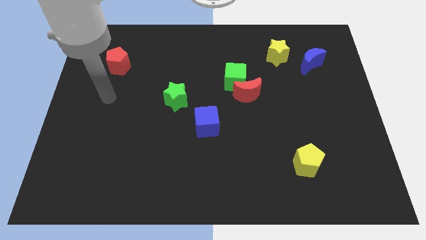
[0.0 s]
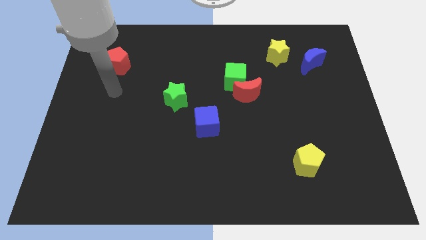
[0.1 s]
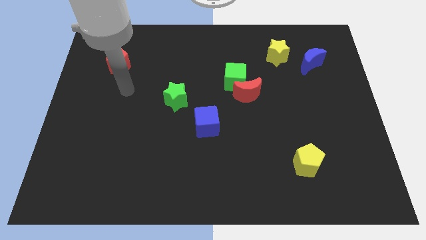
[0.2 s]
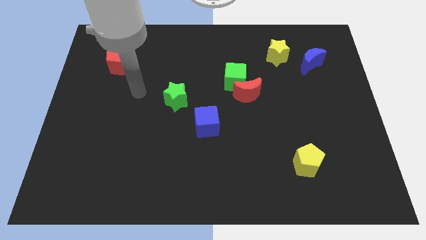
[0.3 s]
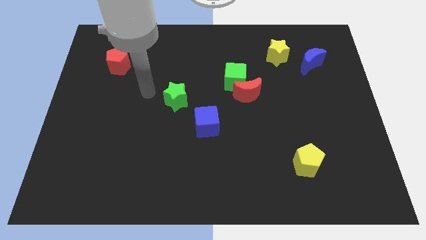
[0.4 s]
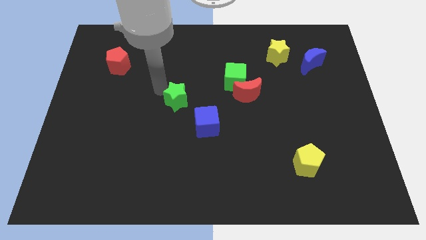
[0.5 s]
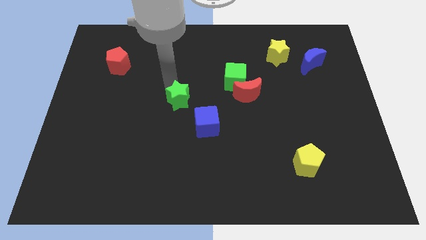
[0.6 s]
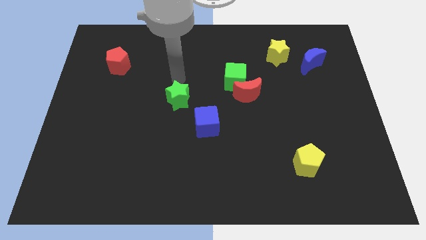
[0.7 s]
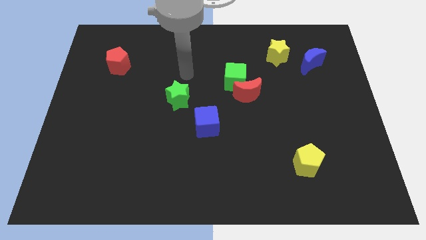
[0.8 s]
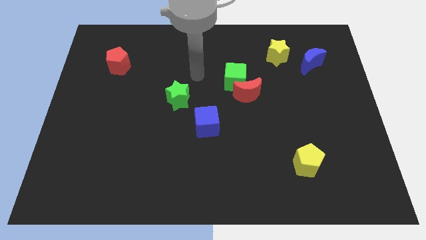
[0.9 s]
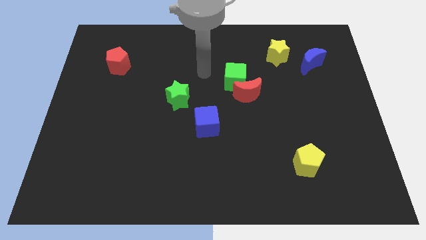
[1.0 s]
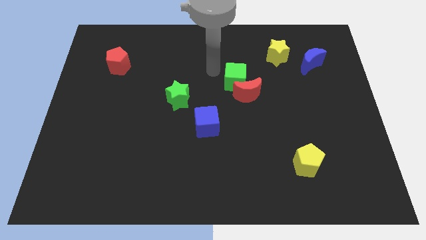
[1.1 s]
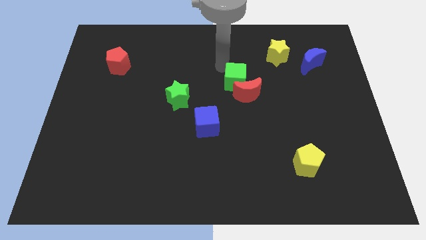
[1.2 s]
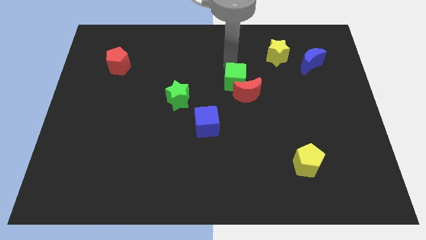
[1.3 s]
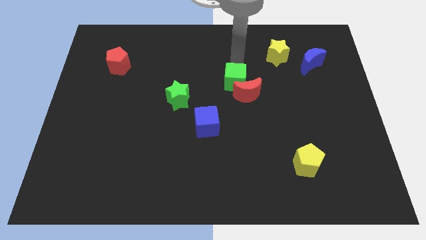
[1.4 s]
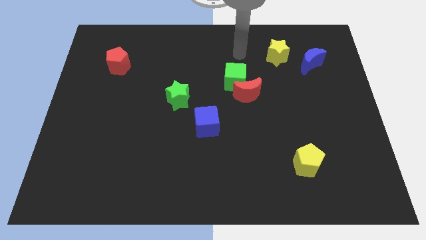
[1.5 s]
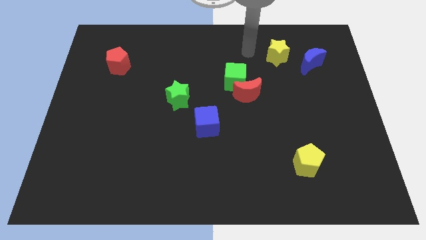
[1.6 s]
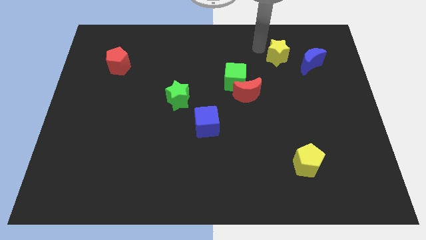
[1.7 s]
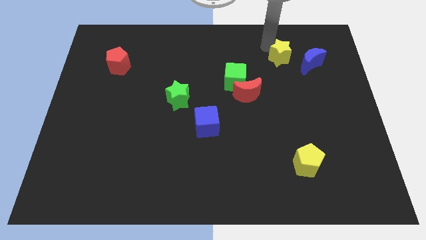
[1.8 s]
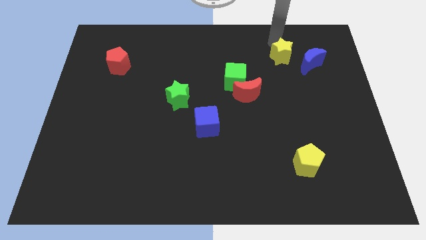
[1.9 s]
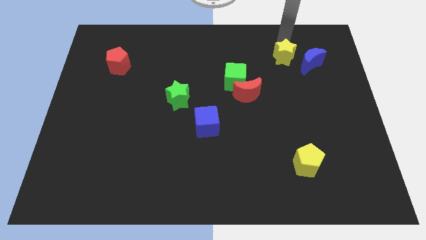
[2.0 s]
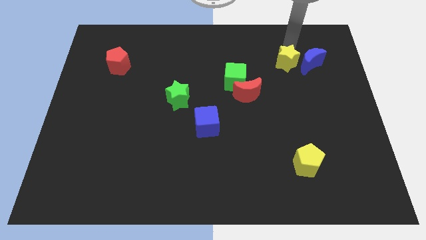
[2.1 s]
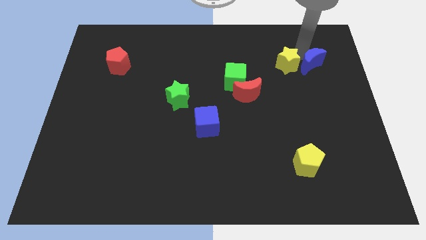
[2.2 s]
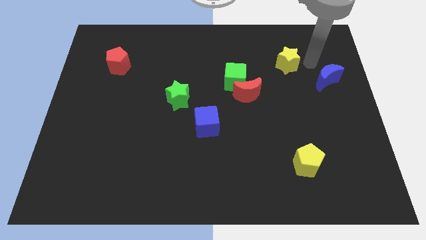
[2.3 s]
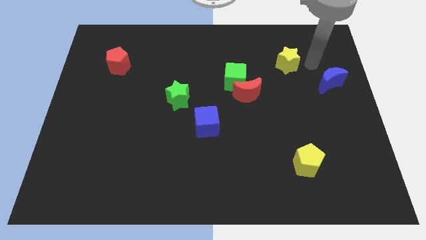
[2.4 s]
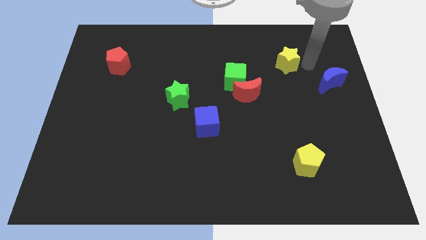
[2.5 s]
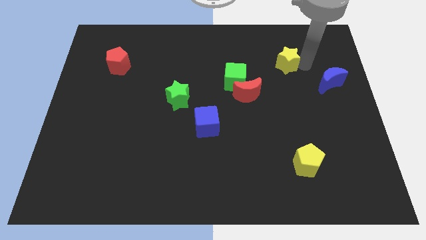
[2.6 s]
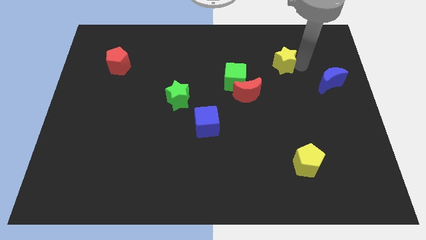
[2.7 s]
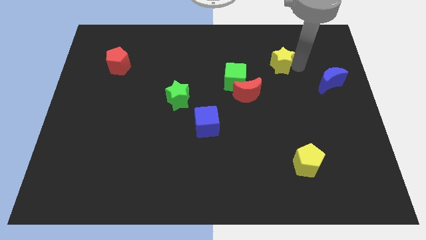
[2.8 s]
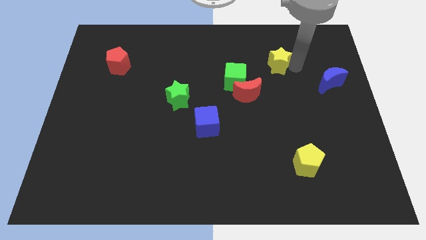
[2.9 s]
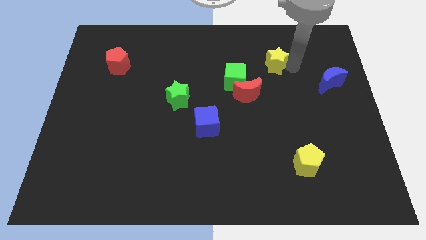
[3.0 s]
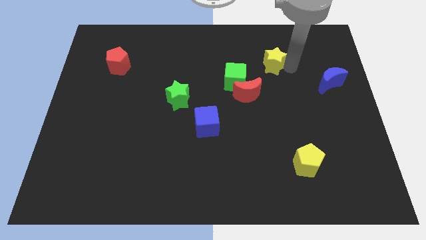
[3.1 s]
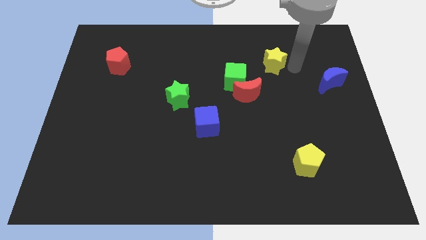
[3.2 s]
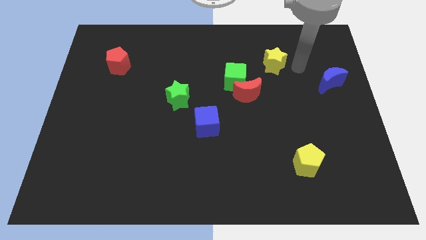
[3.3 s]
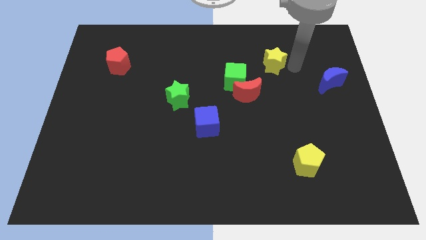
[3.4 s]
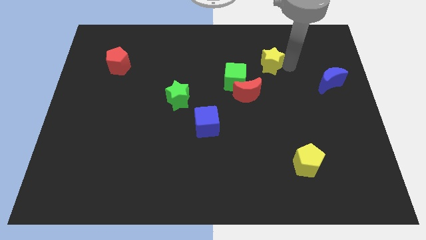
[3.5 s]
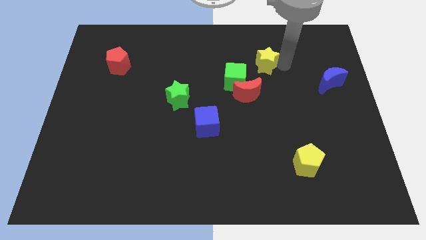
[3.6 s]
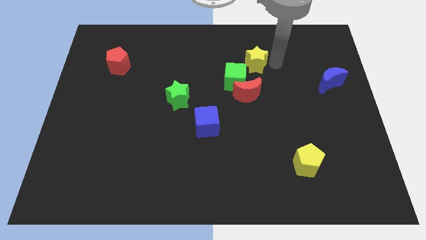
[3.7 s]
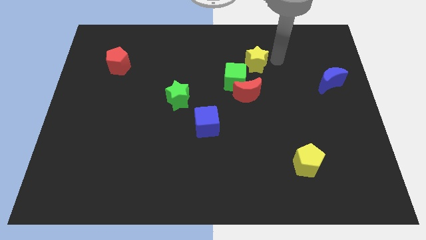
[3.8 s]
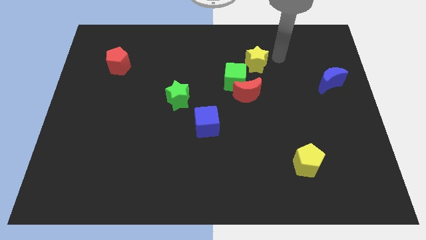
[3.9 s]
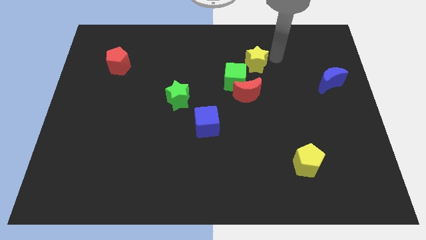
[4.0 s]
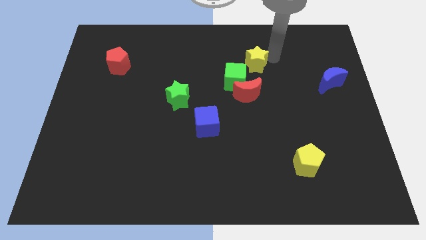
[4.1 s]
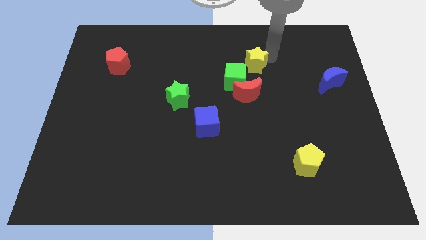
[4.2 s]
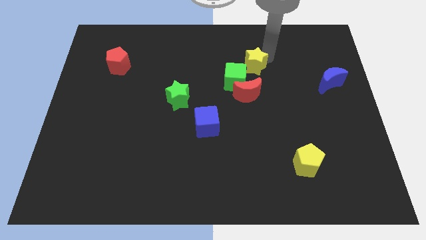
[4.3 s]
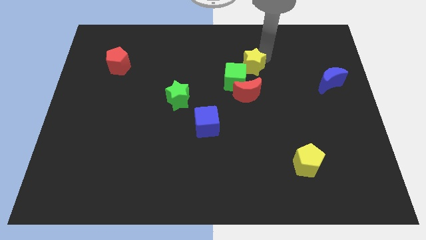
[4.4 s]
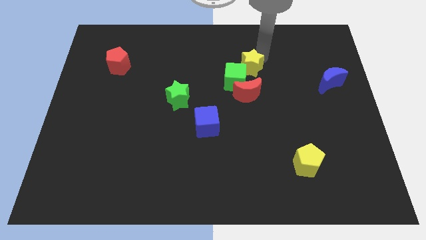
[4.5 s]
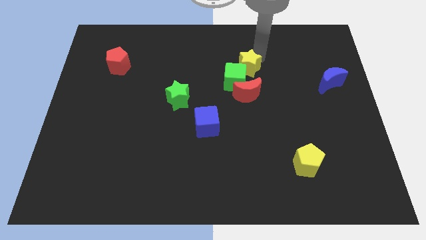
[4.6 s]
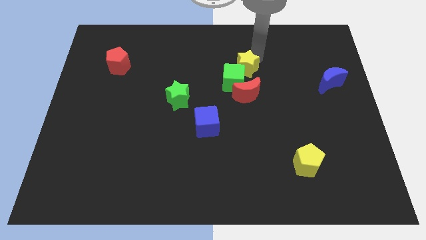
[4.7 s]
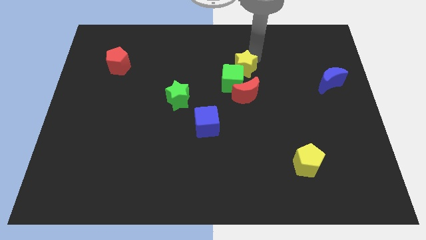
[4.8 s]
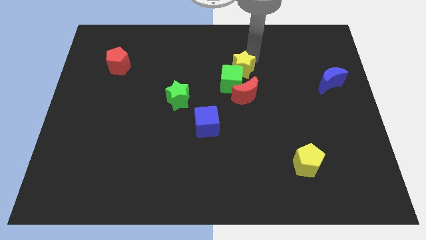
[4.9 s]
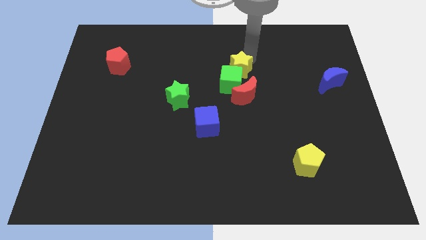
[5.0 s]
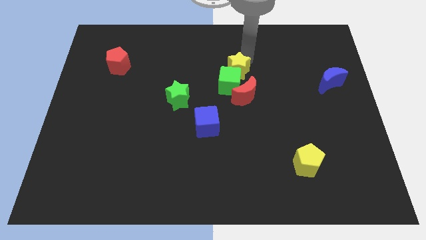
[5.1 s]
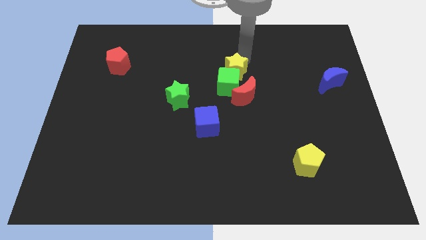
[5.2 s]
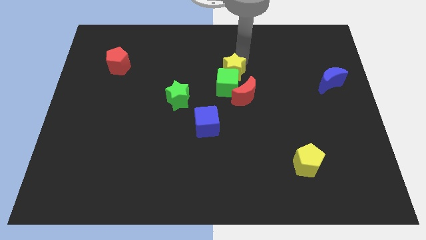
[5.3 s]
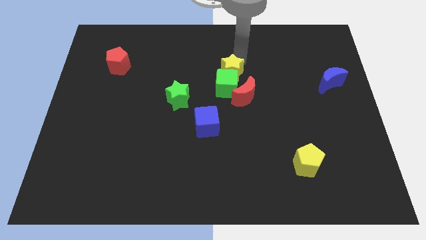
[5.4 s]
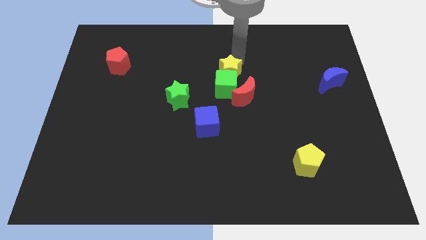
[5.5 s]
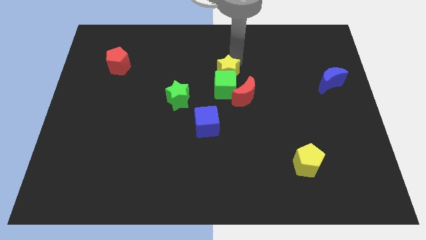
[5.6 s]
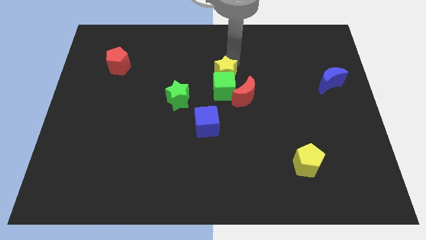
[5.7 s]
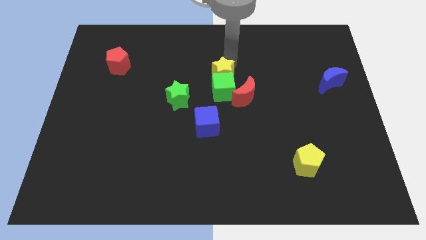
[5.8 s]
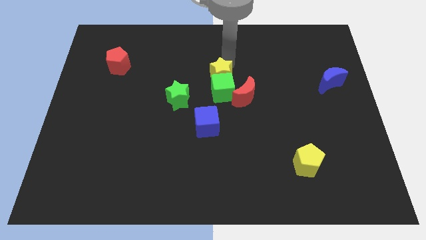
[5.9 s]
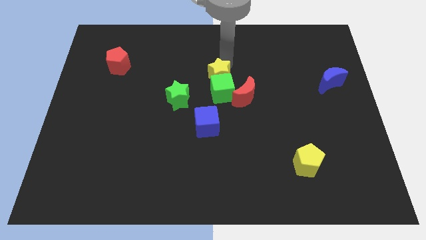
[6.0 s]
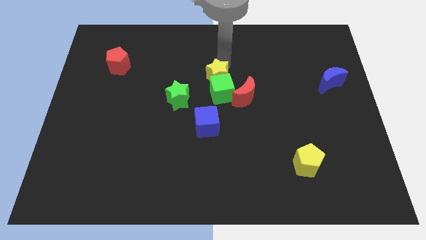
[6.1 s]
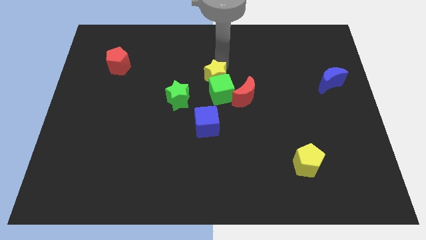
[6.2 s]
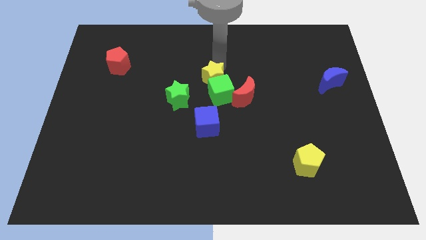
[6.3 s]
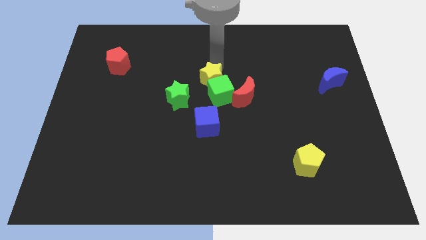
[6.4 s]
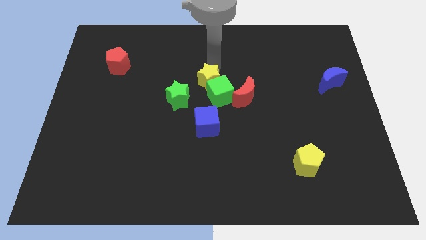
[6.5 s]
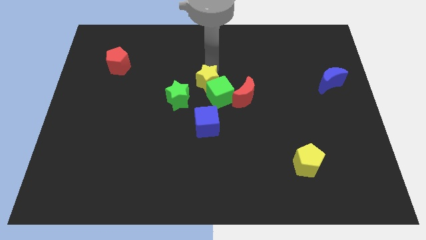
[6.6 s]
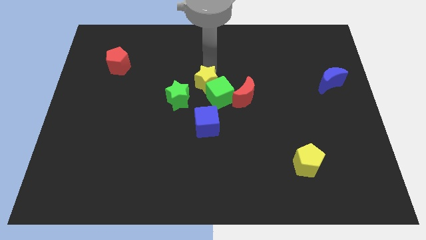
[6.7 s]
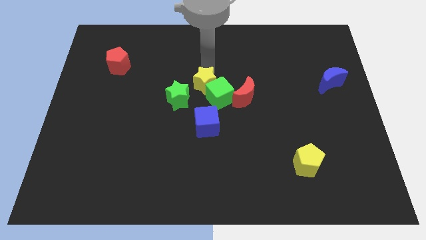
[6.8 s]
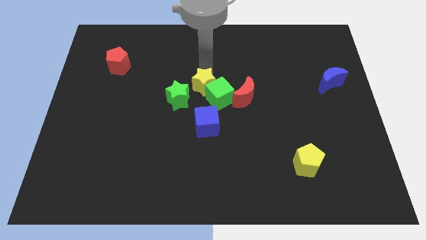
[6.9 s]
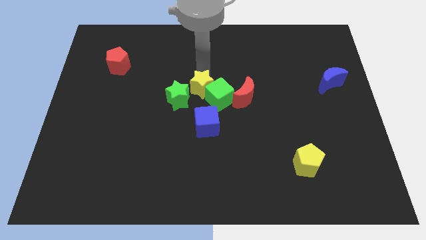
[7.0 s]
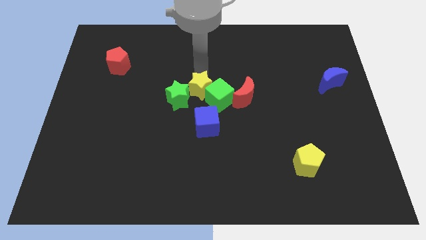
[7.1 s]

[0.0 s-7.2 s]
move the yellow star to the green star

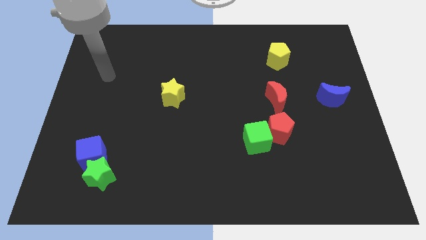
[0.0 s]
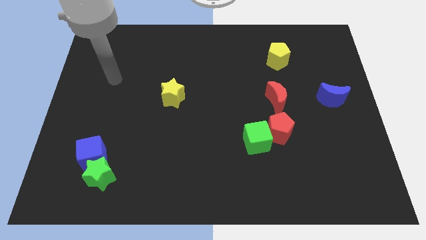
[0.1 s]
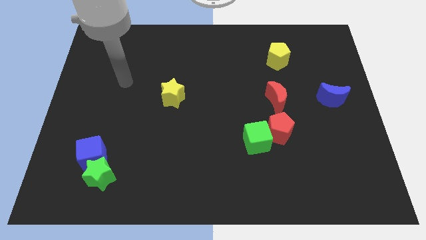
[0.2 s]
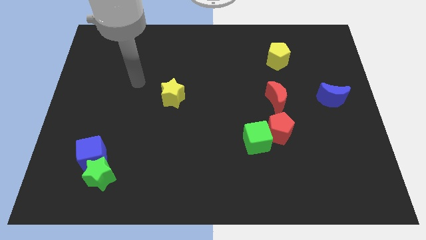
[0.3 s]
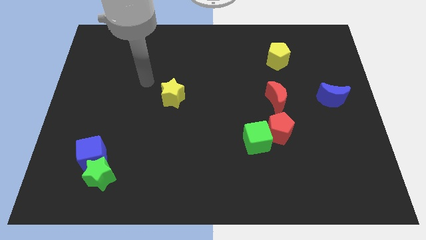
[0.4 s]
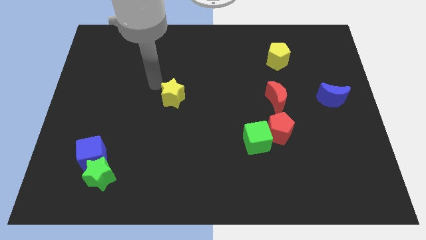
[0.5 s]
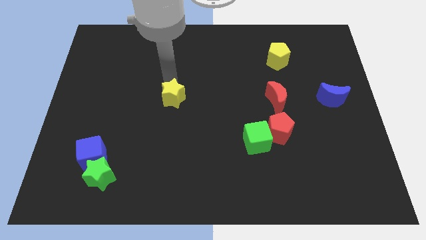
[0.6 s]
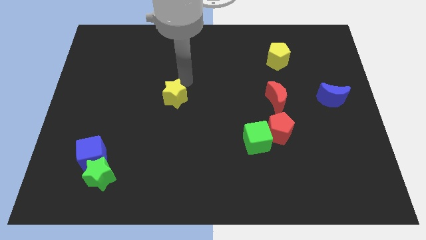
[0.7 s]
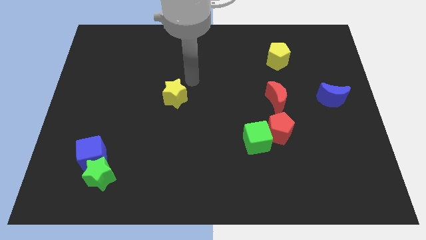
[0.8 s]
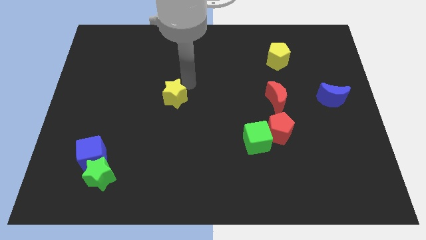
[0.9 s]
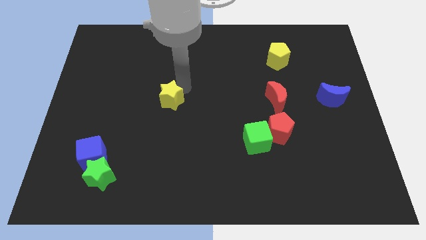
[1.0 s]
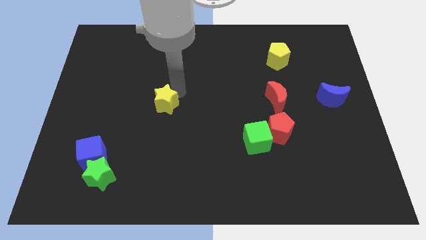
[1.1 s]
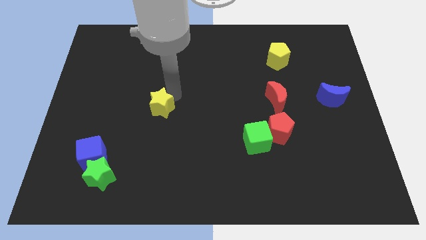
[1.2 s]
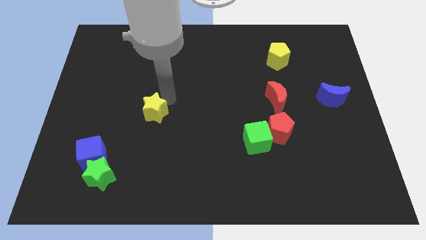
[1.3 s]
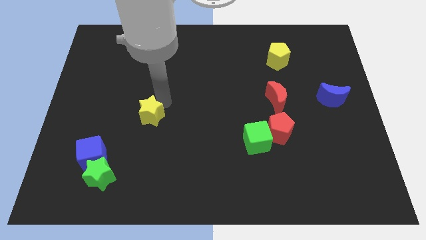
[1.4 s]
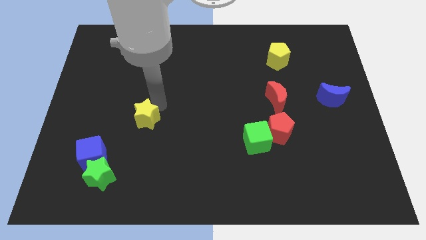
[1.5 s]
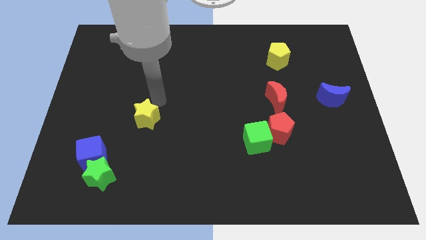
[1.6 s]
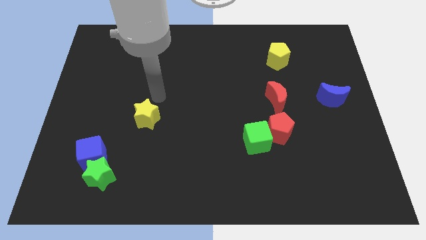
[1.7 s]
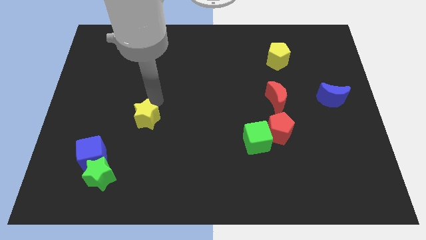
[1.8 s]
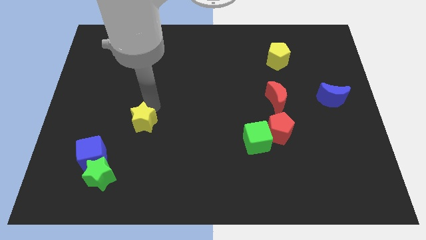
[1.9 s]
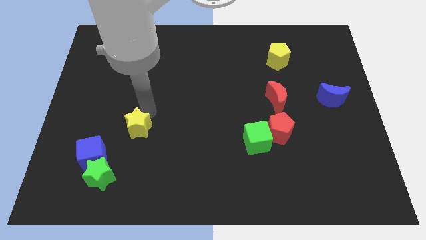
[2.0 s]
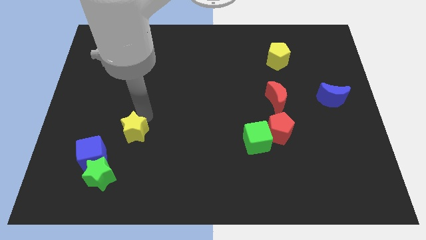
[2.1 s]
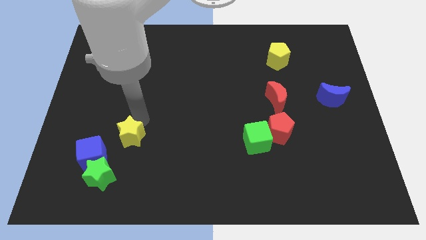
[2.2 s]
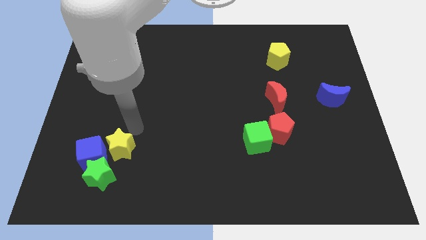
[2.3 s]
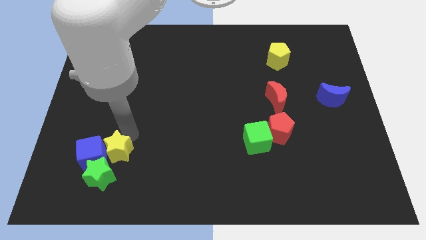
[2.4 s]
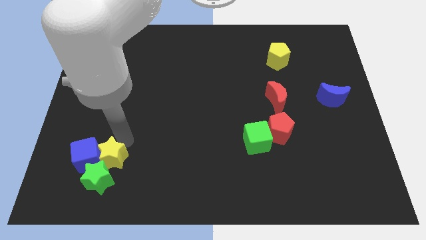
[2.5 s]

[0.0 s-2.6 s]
push the yellow star to the green star
